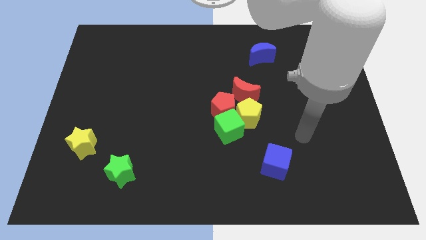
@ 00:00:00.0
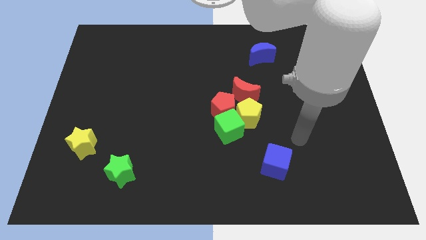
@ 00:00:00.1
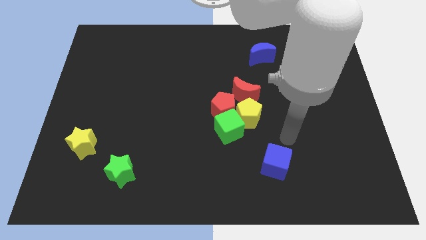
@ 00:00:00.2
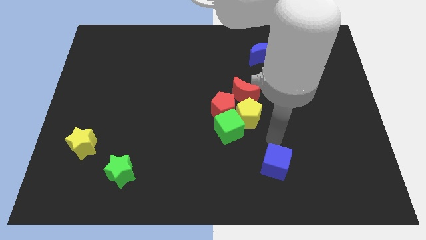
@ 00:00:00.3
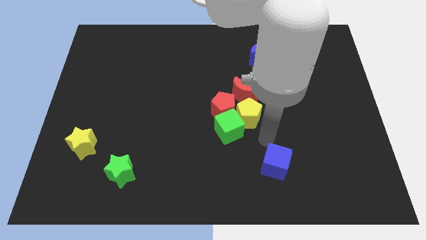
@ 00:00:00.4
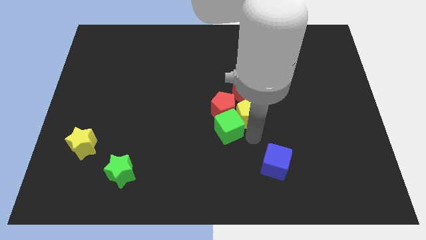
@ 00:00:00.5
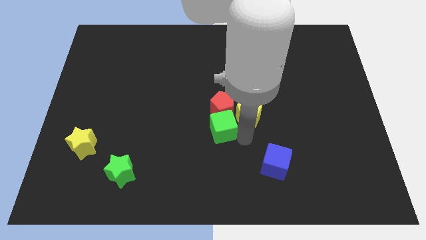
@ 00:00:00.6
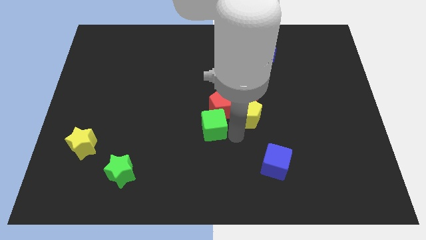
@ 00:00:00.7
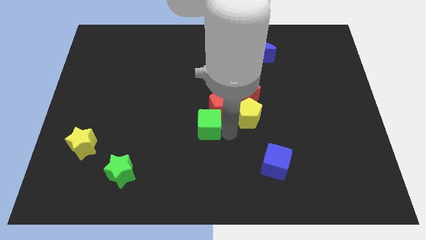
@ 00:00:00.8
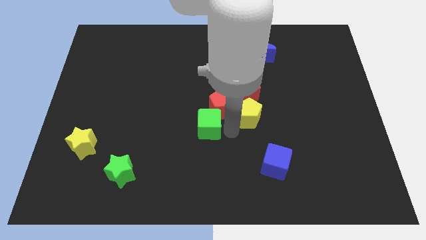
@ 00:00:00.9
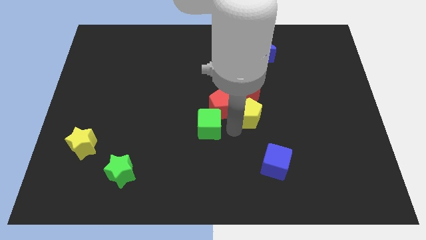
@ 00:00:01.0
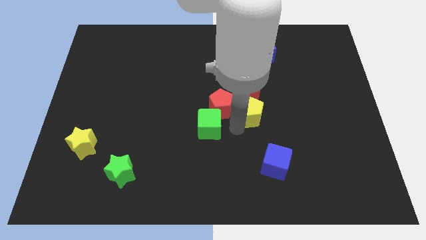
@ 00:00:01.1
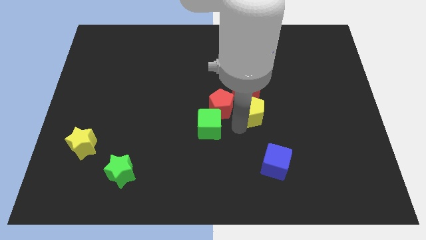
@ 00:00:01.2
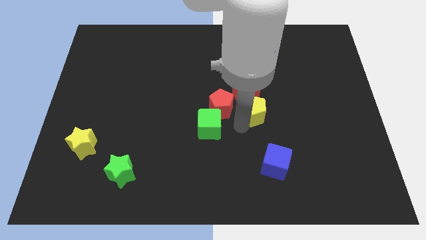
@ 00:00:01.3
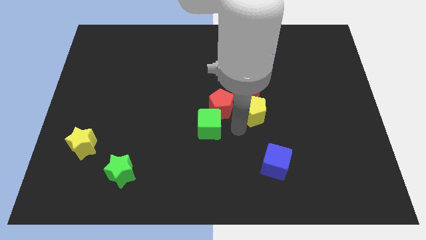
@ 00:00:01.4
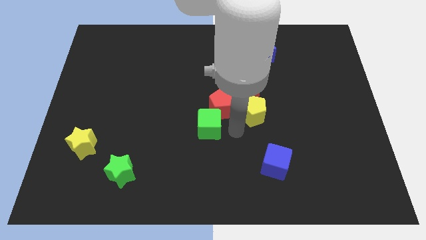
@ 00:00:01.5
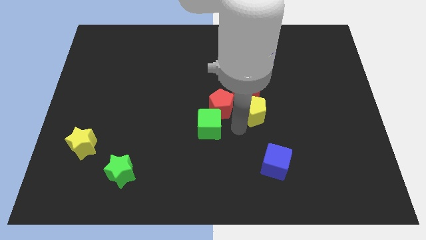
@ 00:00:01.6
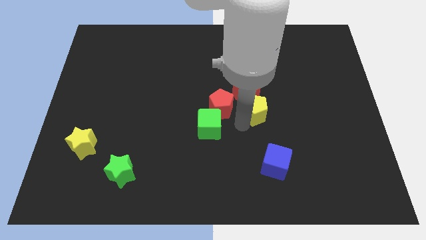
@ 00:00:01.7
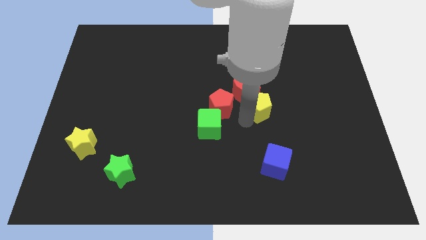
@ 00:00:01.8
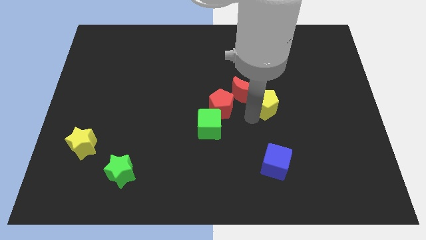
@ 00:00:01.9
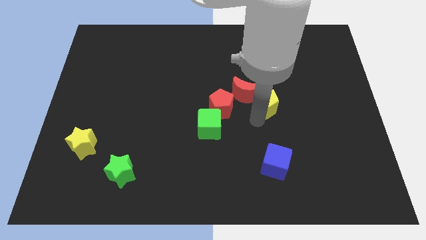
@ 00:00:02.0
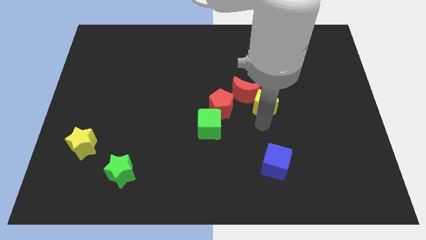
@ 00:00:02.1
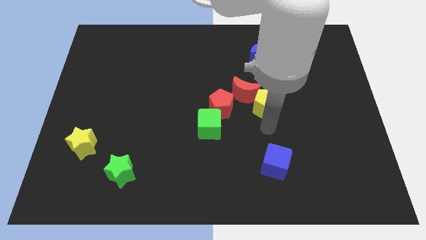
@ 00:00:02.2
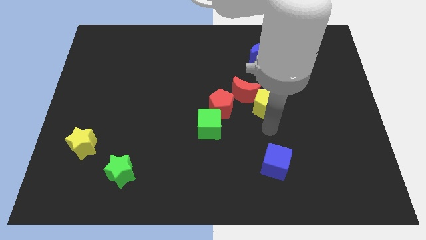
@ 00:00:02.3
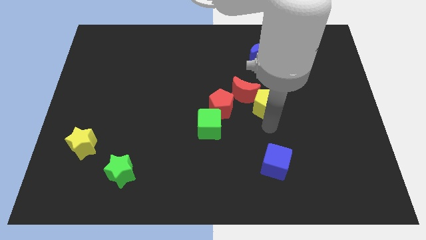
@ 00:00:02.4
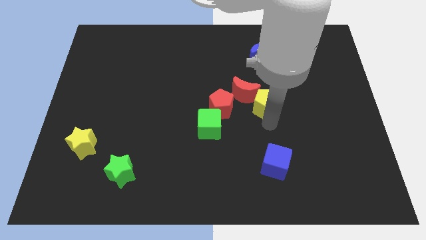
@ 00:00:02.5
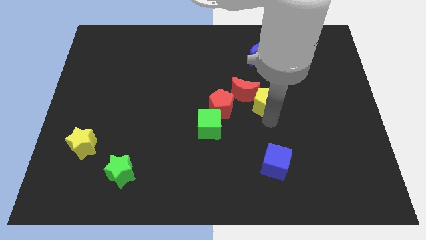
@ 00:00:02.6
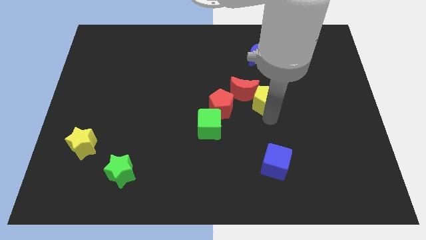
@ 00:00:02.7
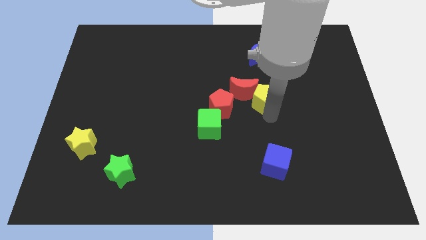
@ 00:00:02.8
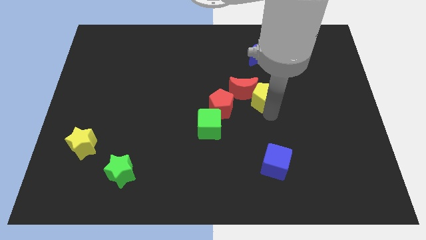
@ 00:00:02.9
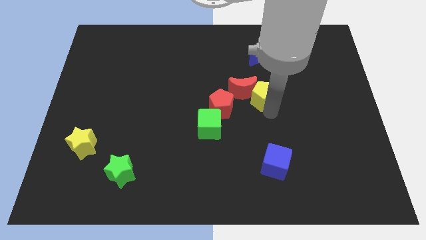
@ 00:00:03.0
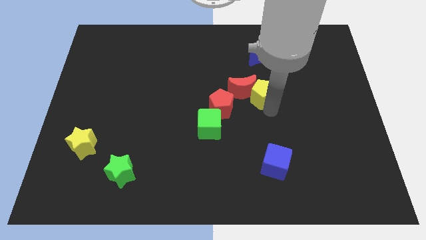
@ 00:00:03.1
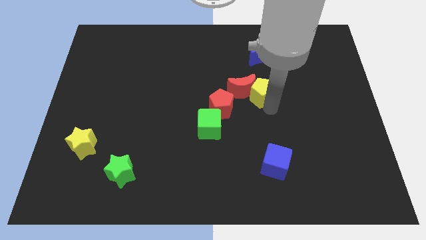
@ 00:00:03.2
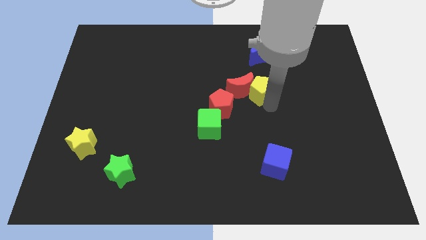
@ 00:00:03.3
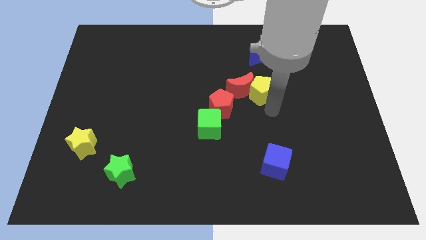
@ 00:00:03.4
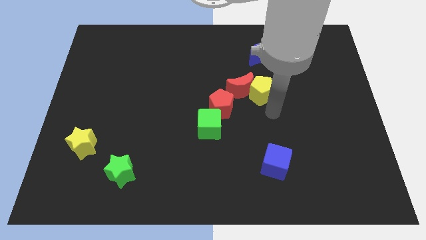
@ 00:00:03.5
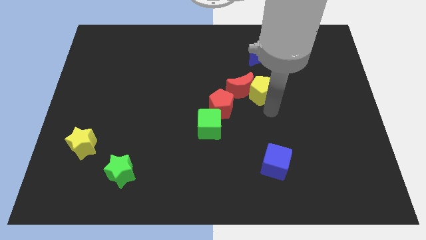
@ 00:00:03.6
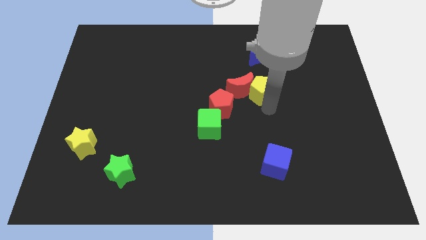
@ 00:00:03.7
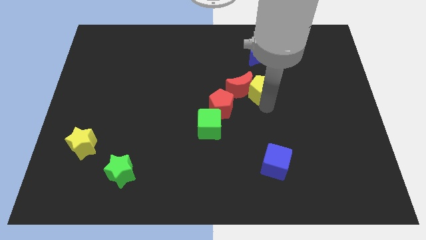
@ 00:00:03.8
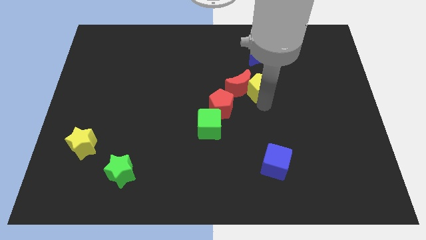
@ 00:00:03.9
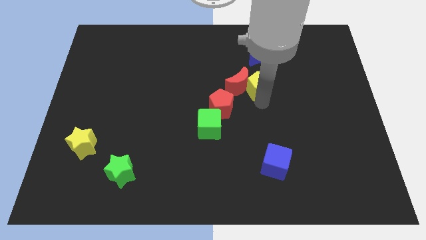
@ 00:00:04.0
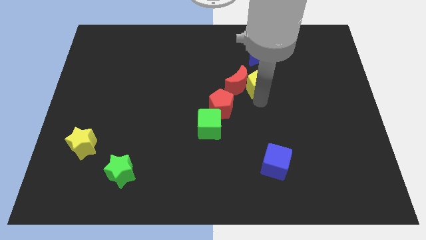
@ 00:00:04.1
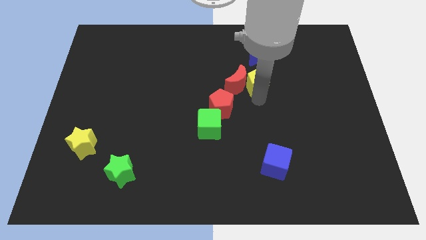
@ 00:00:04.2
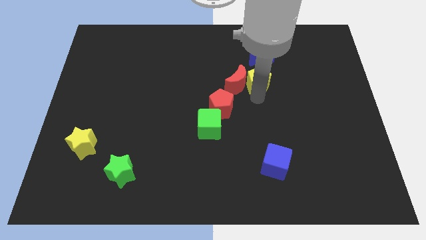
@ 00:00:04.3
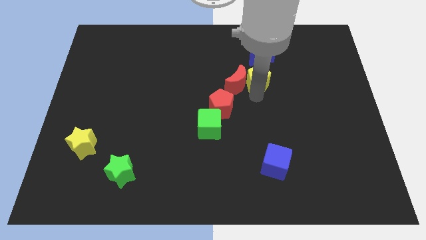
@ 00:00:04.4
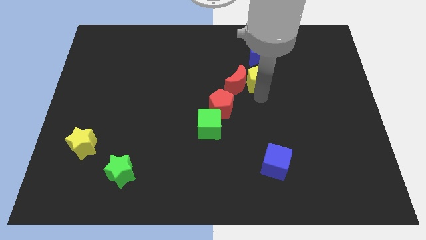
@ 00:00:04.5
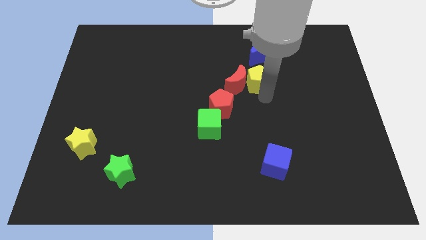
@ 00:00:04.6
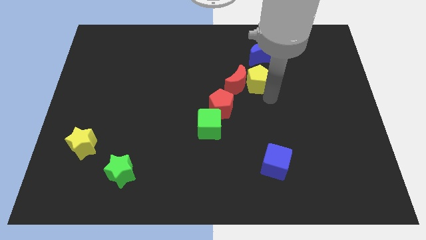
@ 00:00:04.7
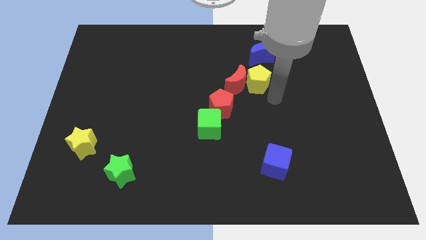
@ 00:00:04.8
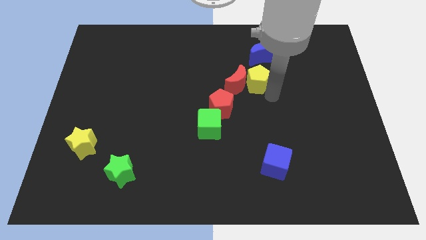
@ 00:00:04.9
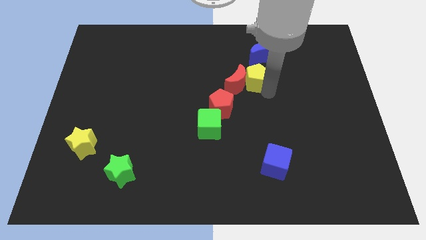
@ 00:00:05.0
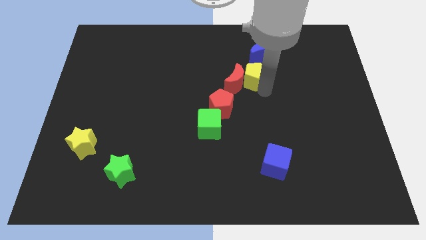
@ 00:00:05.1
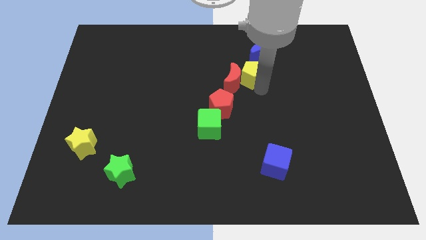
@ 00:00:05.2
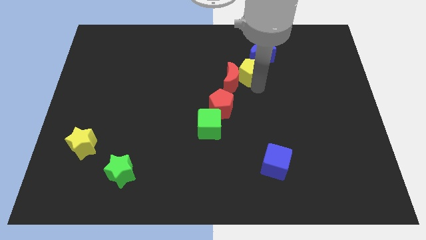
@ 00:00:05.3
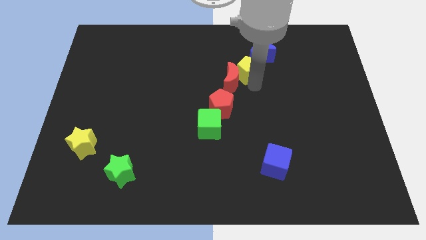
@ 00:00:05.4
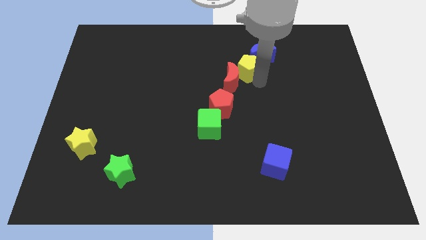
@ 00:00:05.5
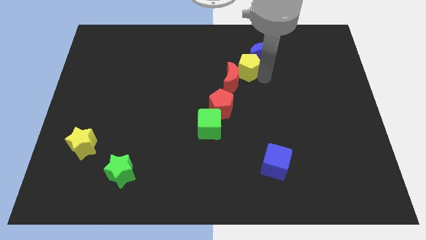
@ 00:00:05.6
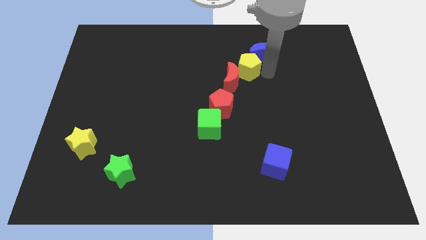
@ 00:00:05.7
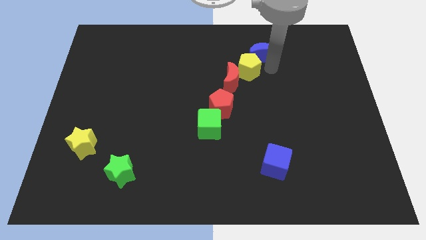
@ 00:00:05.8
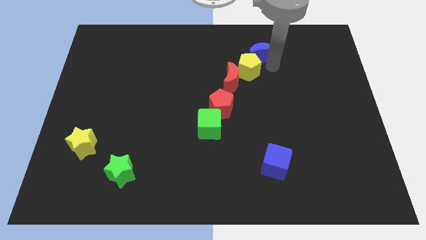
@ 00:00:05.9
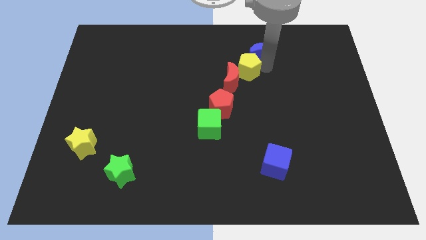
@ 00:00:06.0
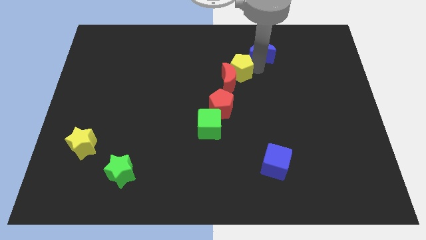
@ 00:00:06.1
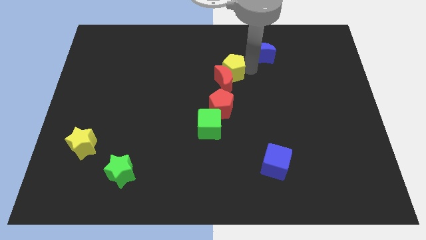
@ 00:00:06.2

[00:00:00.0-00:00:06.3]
slide the yellow pentagon slightly upwards and then left

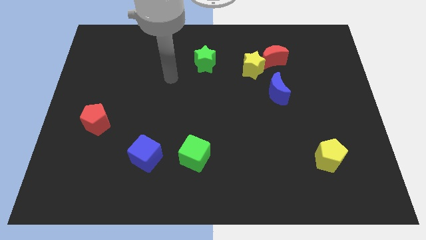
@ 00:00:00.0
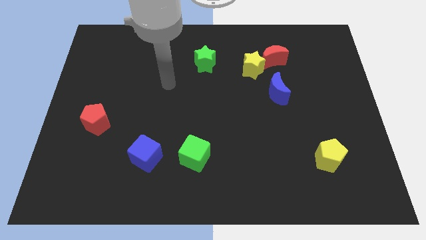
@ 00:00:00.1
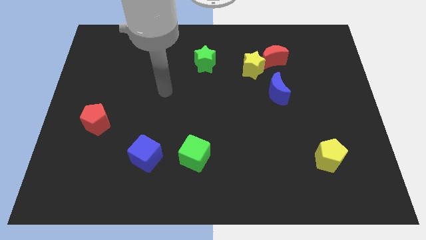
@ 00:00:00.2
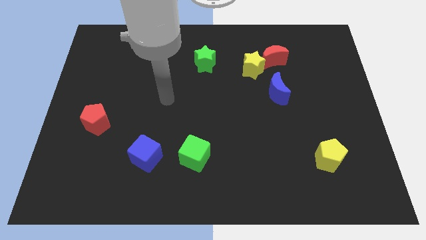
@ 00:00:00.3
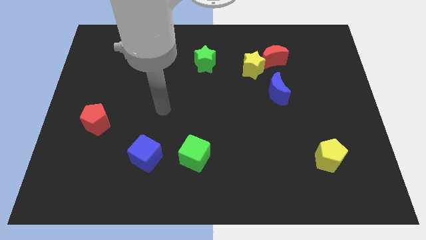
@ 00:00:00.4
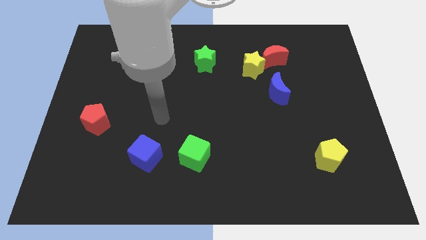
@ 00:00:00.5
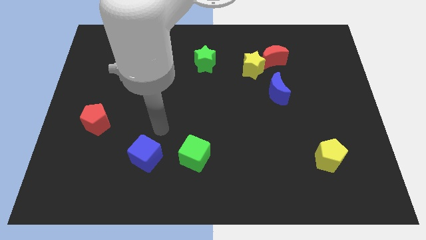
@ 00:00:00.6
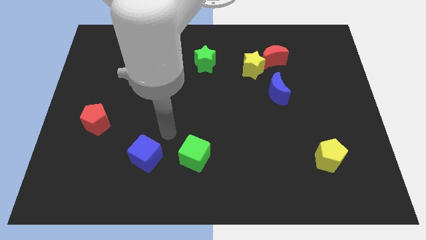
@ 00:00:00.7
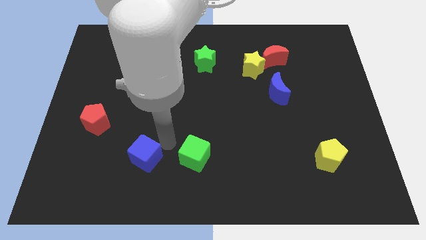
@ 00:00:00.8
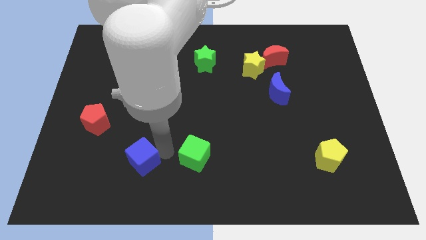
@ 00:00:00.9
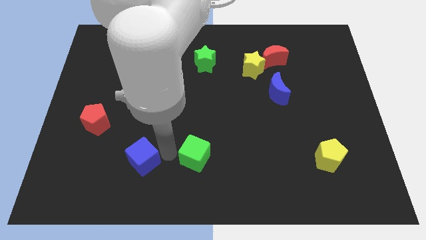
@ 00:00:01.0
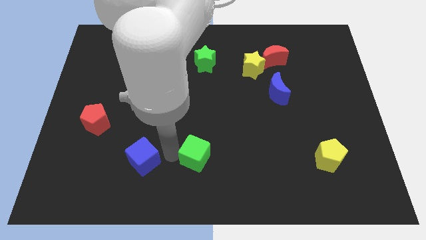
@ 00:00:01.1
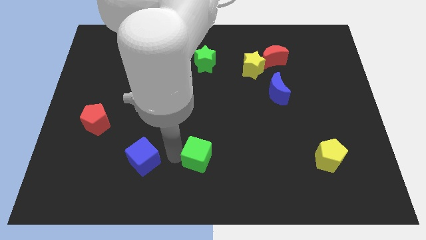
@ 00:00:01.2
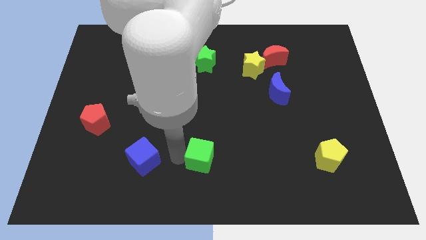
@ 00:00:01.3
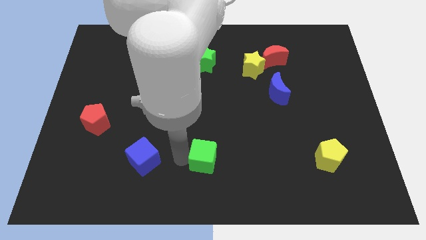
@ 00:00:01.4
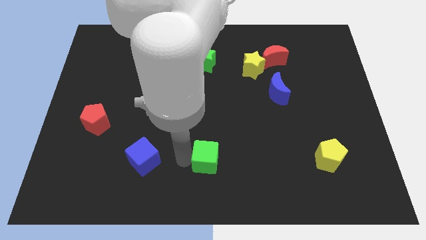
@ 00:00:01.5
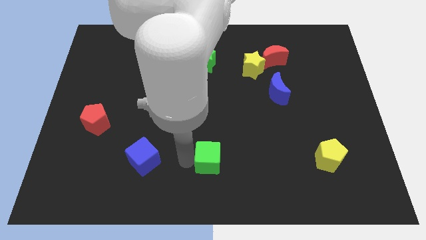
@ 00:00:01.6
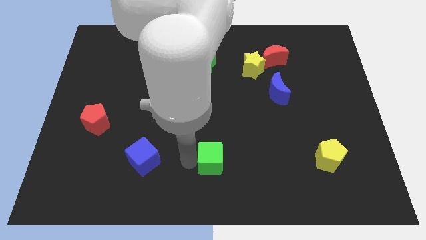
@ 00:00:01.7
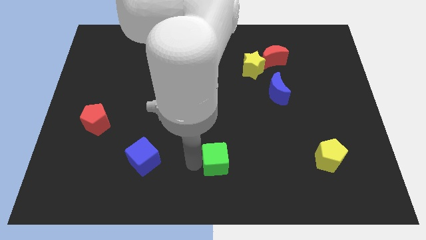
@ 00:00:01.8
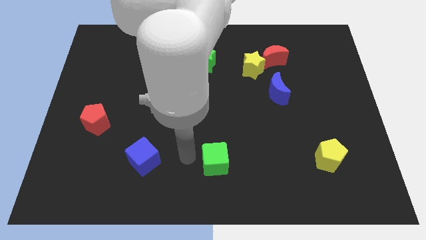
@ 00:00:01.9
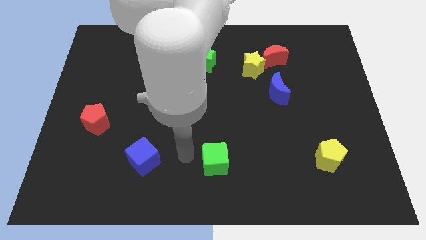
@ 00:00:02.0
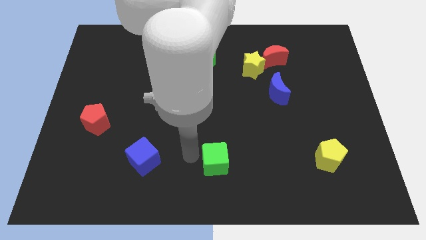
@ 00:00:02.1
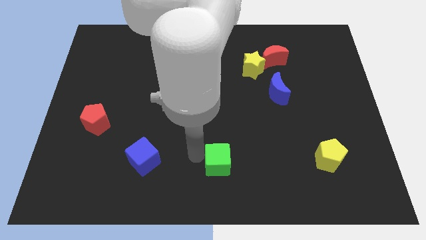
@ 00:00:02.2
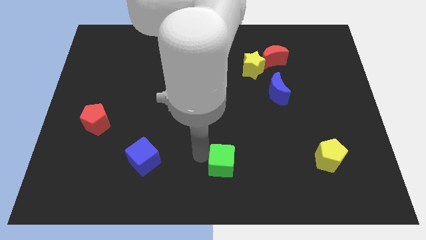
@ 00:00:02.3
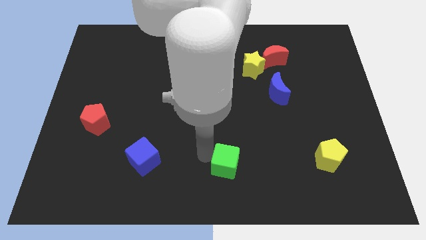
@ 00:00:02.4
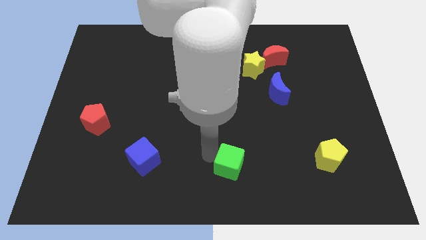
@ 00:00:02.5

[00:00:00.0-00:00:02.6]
move the green cube a little bit right
